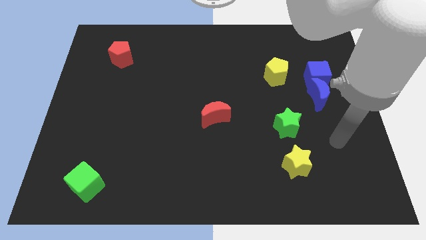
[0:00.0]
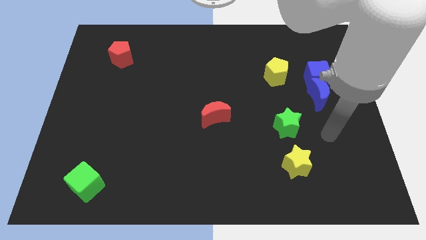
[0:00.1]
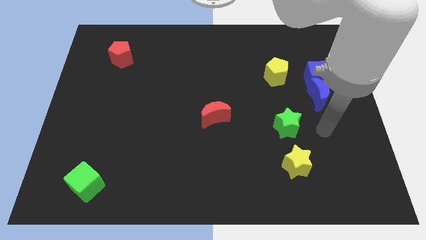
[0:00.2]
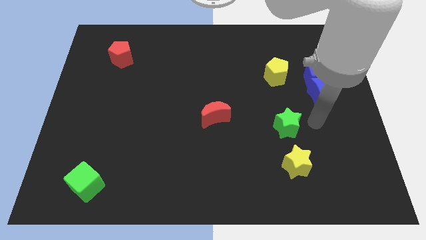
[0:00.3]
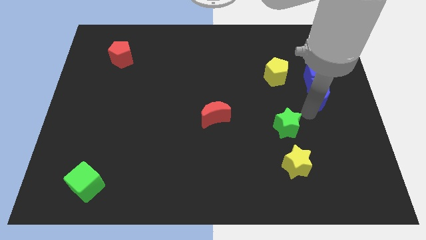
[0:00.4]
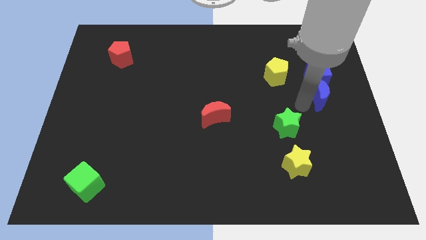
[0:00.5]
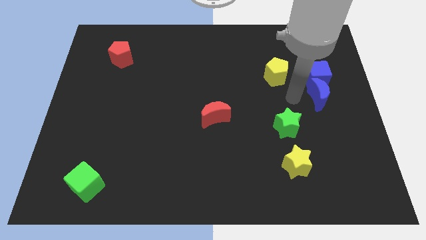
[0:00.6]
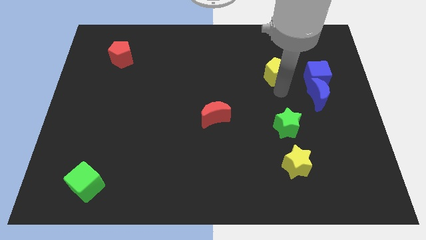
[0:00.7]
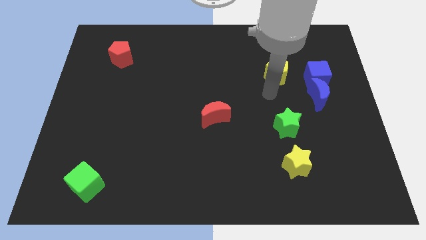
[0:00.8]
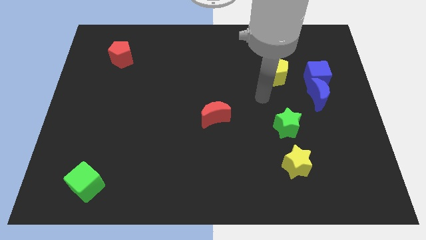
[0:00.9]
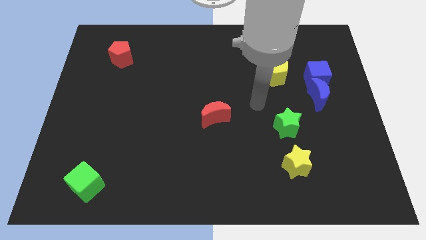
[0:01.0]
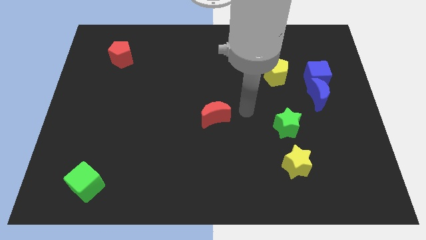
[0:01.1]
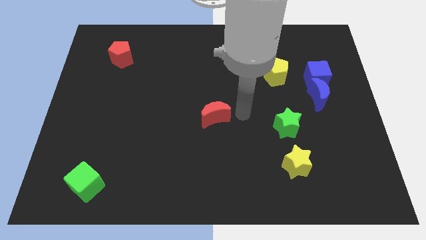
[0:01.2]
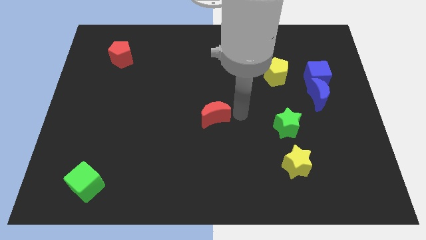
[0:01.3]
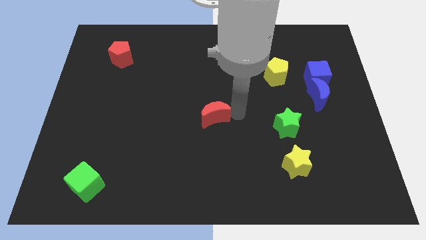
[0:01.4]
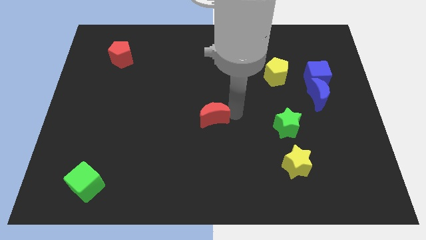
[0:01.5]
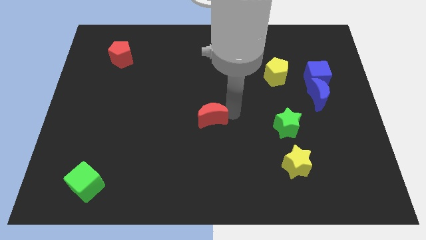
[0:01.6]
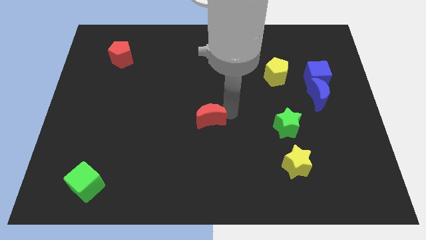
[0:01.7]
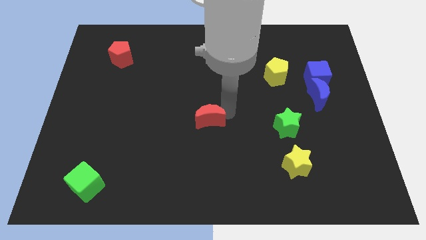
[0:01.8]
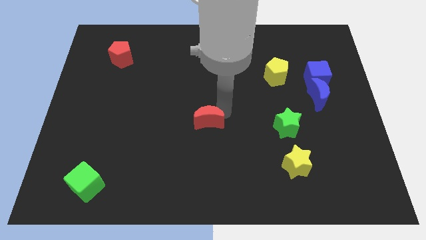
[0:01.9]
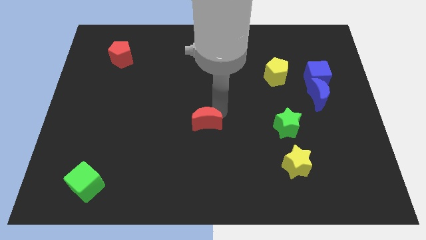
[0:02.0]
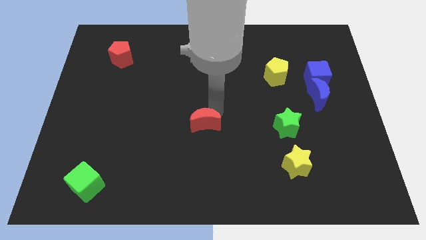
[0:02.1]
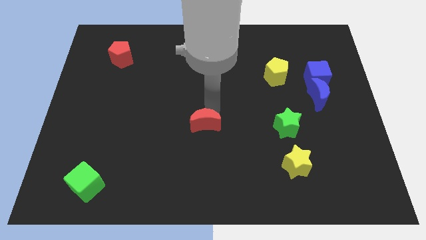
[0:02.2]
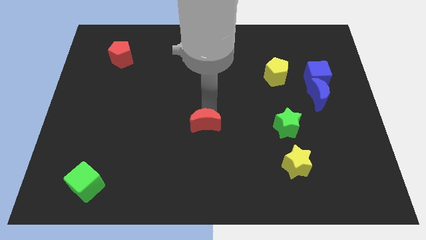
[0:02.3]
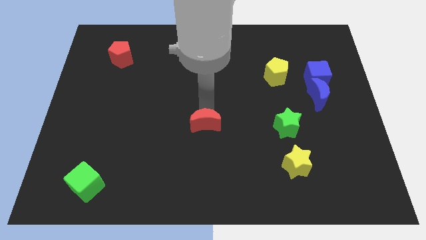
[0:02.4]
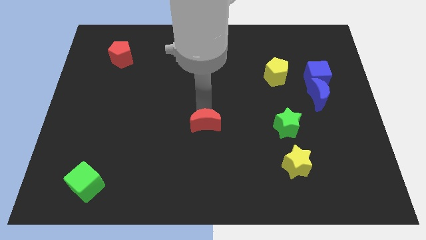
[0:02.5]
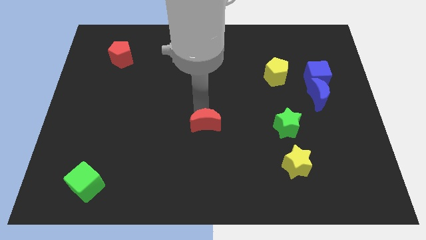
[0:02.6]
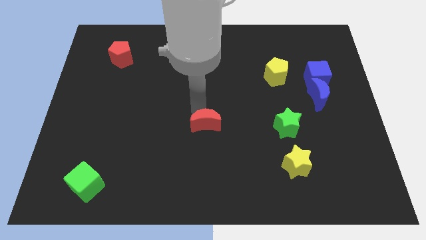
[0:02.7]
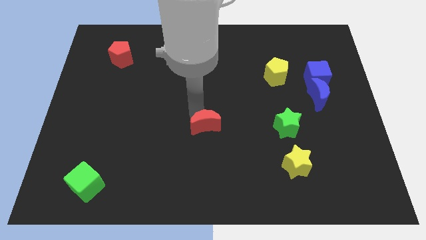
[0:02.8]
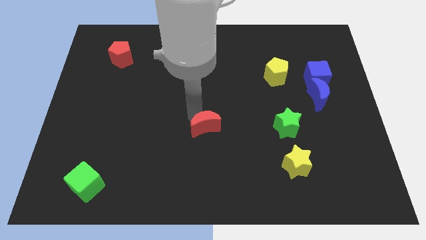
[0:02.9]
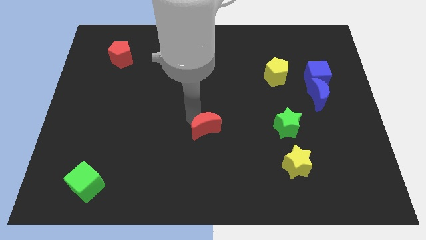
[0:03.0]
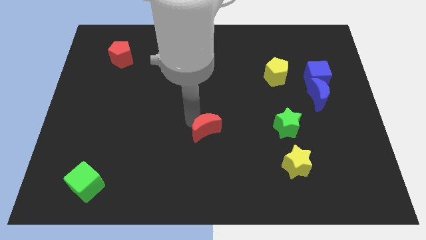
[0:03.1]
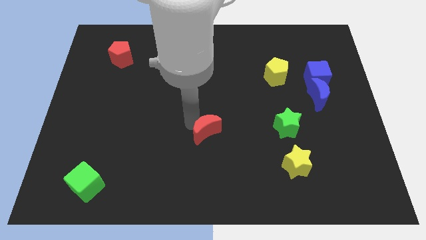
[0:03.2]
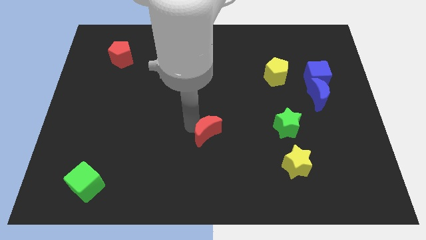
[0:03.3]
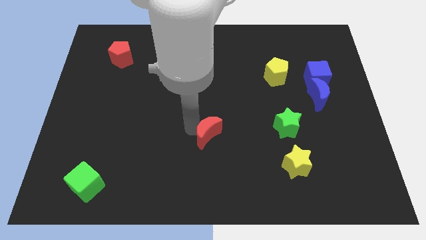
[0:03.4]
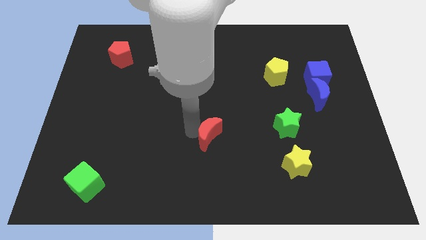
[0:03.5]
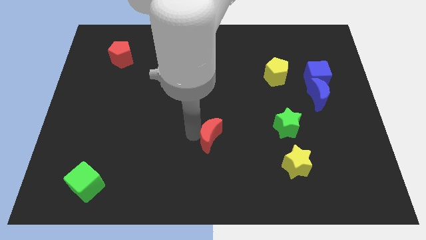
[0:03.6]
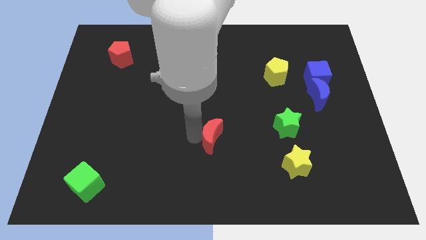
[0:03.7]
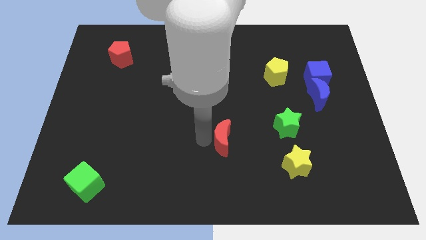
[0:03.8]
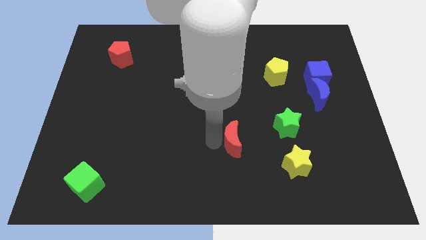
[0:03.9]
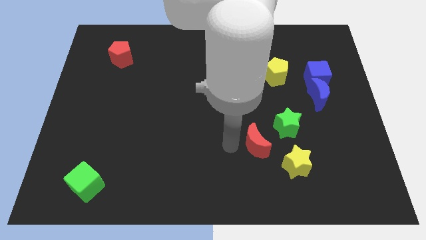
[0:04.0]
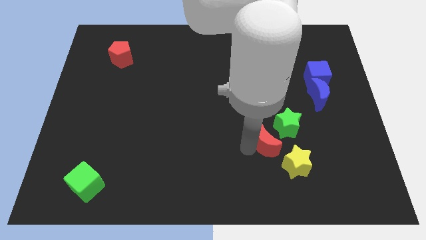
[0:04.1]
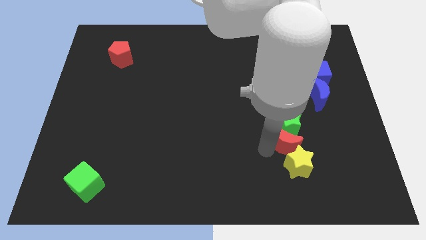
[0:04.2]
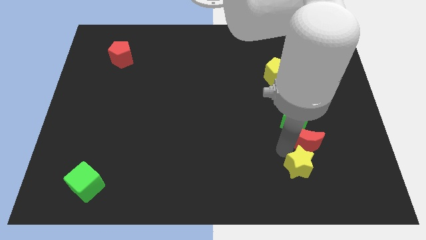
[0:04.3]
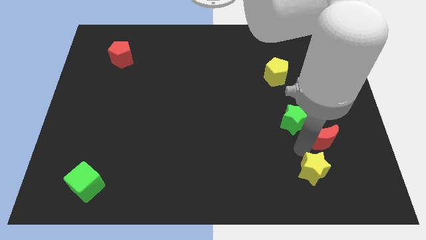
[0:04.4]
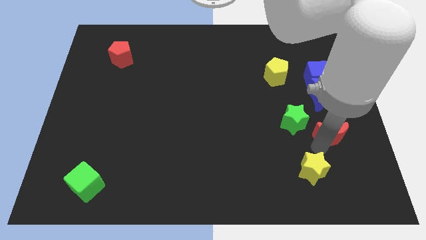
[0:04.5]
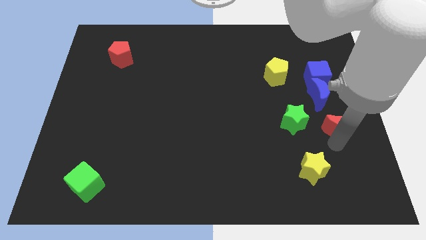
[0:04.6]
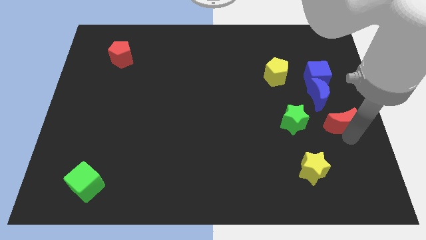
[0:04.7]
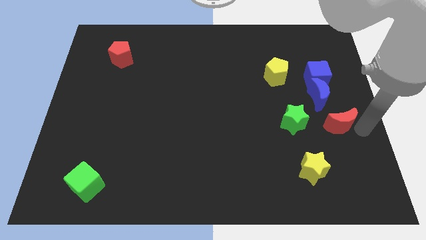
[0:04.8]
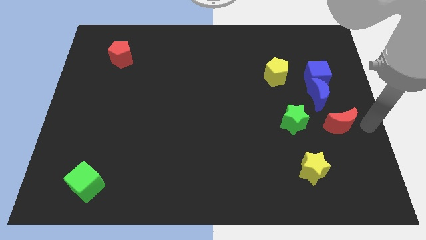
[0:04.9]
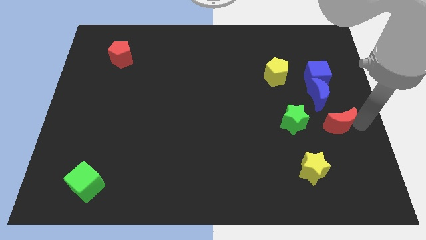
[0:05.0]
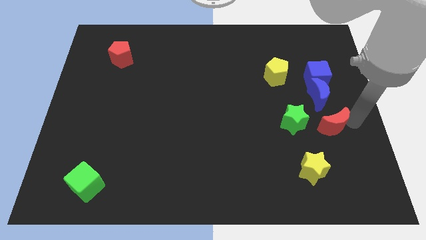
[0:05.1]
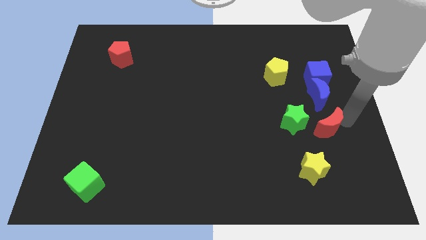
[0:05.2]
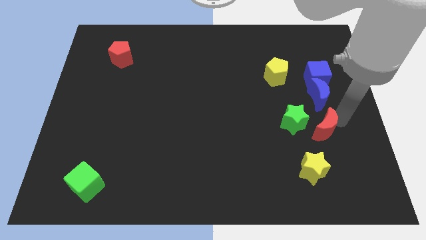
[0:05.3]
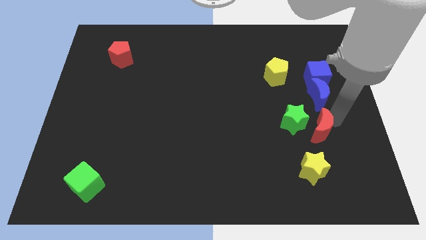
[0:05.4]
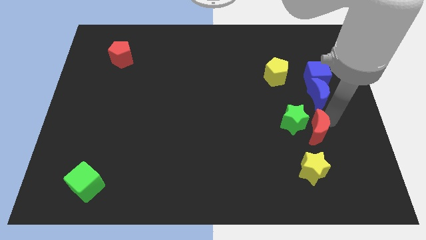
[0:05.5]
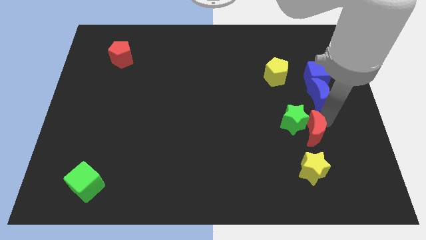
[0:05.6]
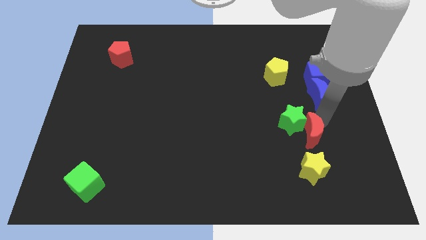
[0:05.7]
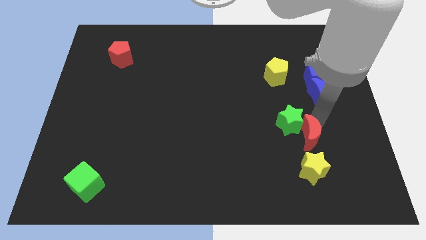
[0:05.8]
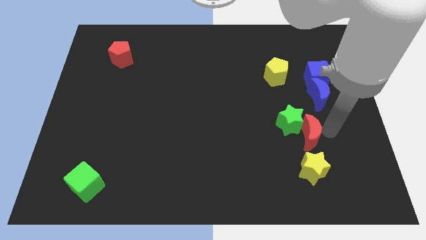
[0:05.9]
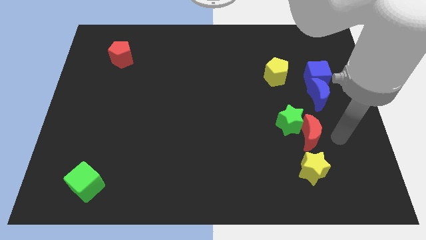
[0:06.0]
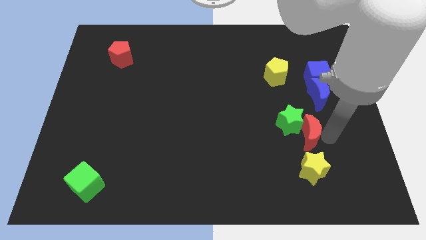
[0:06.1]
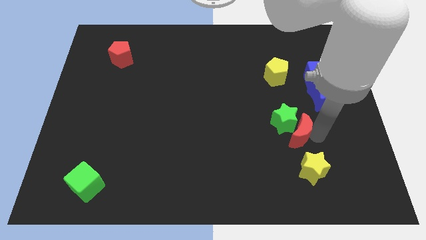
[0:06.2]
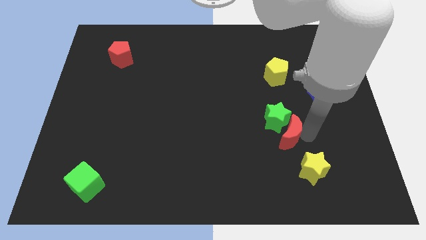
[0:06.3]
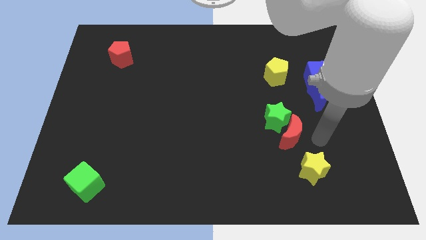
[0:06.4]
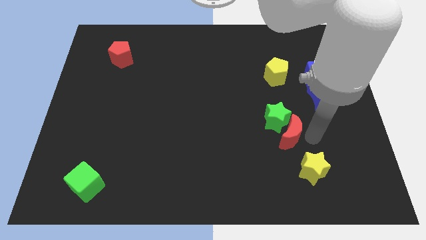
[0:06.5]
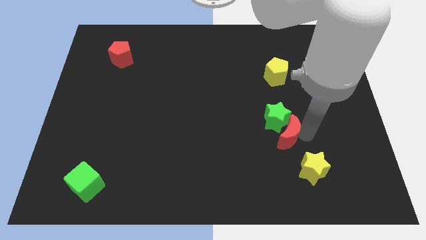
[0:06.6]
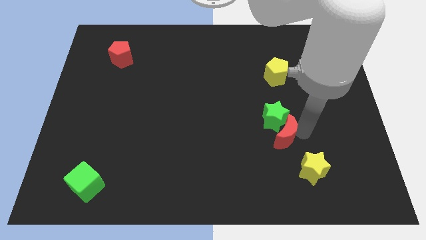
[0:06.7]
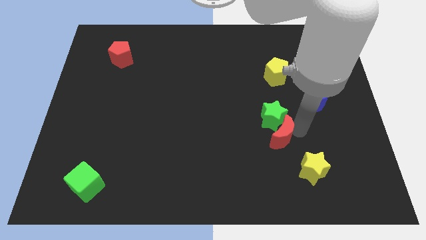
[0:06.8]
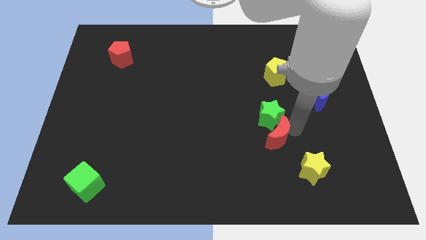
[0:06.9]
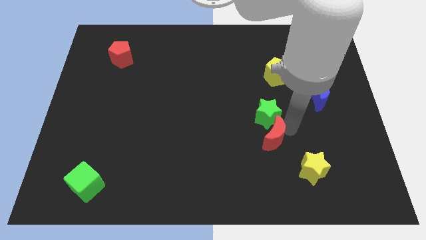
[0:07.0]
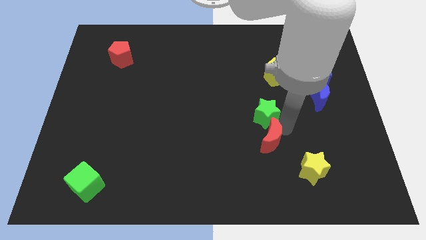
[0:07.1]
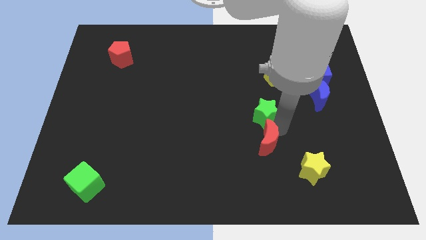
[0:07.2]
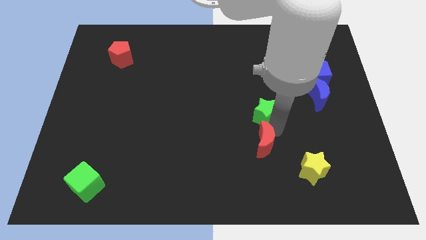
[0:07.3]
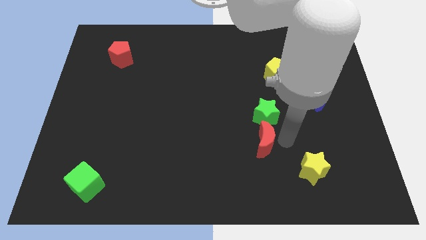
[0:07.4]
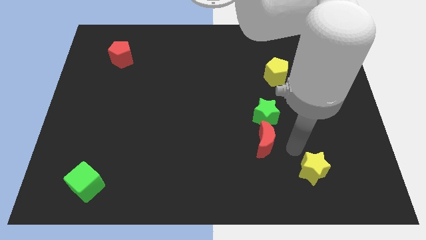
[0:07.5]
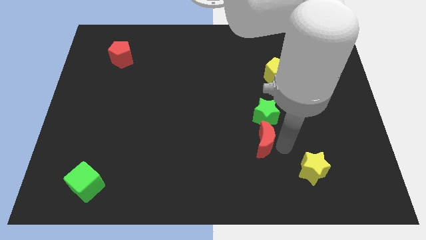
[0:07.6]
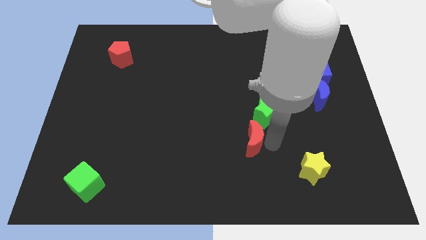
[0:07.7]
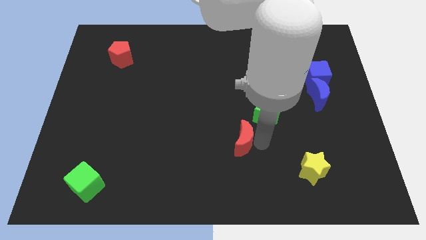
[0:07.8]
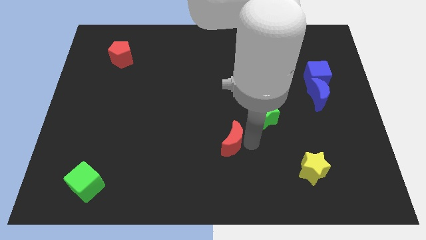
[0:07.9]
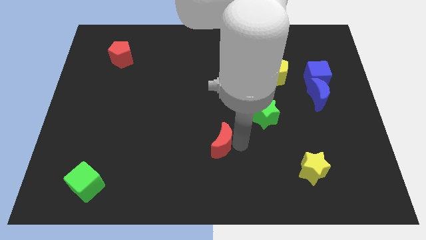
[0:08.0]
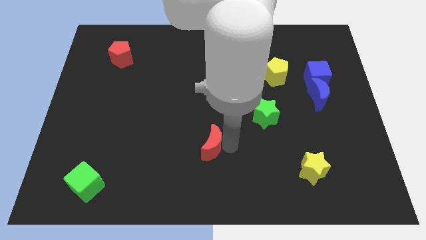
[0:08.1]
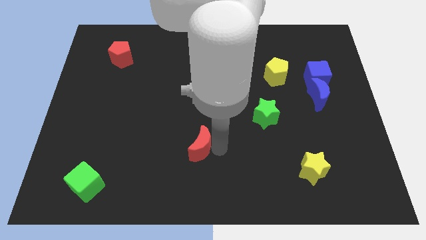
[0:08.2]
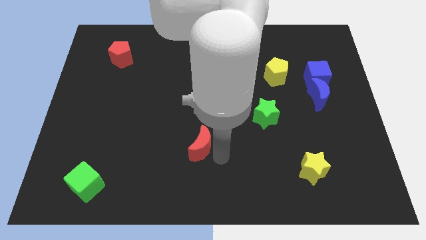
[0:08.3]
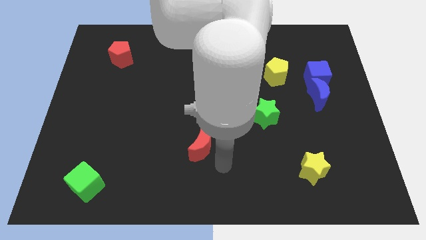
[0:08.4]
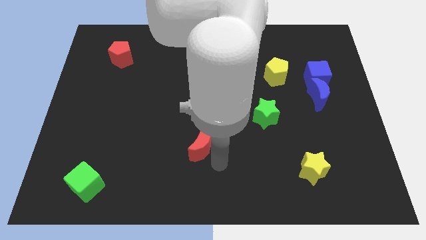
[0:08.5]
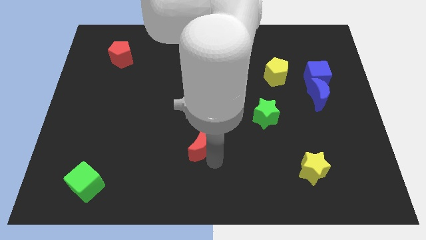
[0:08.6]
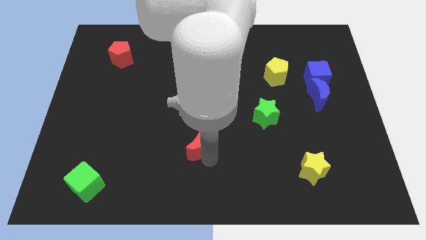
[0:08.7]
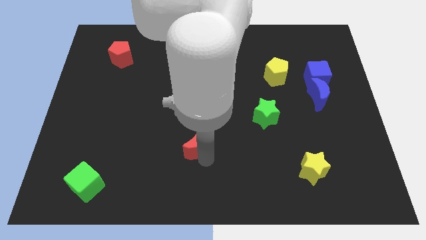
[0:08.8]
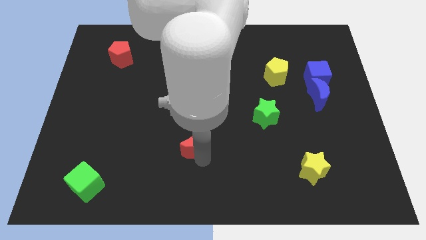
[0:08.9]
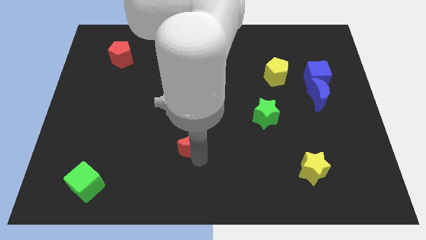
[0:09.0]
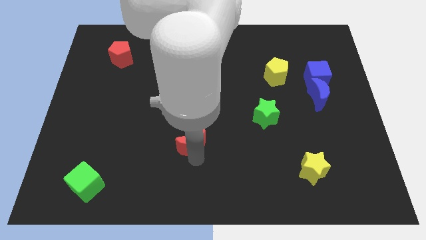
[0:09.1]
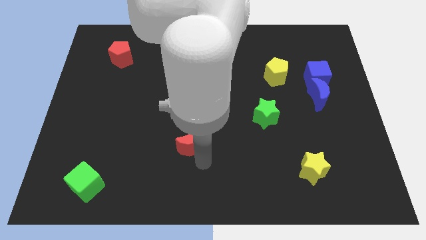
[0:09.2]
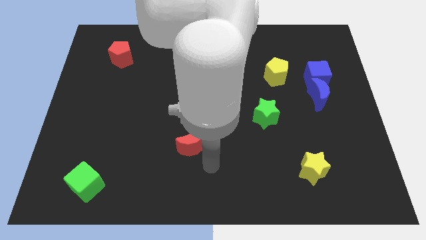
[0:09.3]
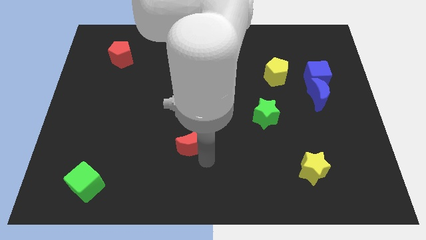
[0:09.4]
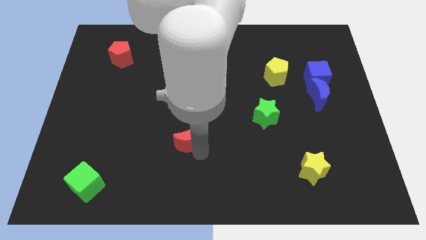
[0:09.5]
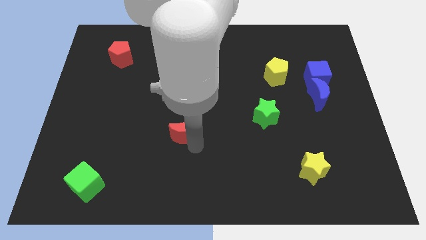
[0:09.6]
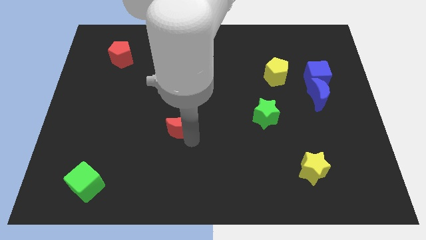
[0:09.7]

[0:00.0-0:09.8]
slide the red moon somewhat to the left
